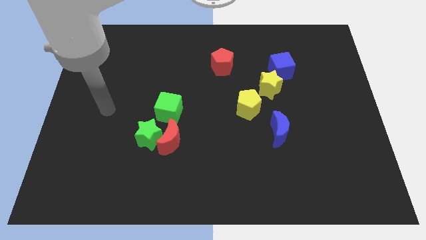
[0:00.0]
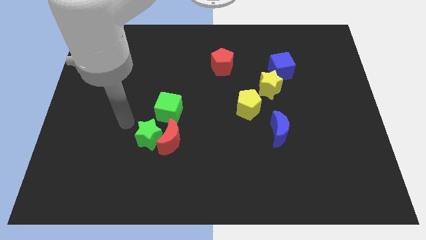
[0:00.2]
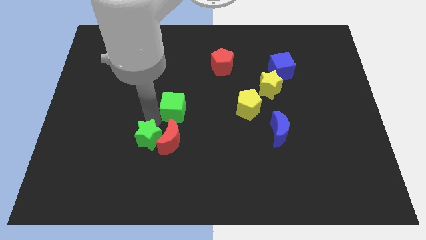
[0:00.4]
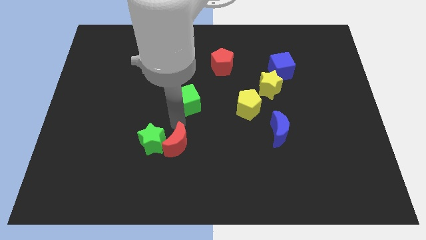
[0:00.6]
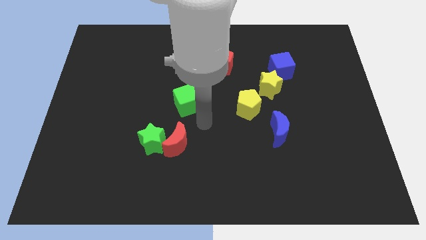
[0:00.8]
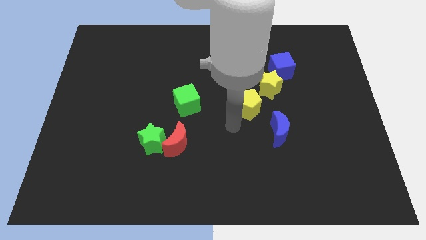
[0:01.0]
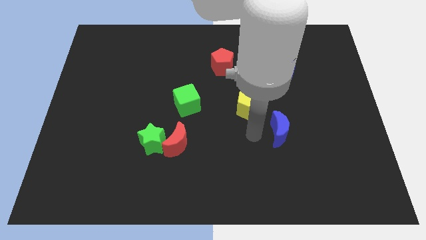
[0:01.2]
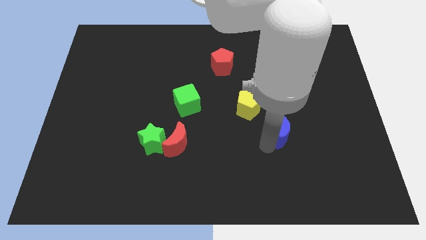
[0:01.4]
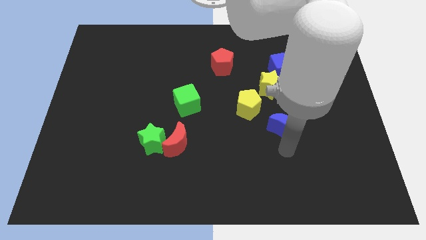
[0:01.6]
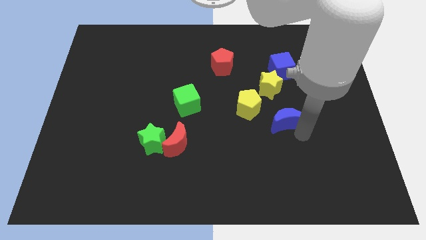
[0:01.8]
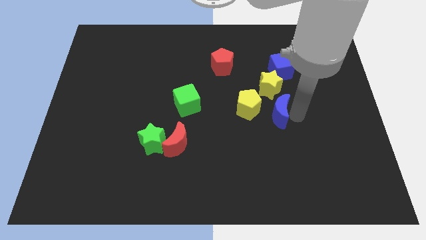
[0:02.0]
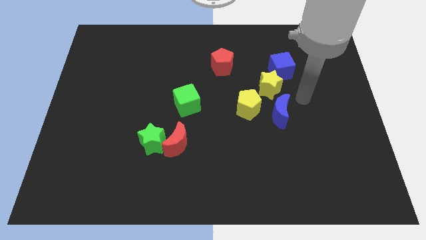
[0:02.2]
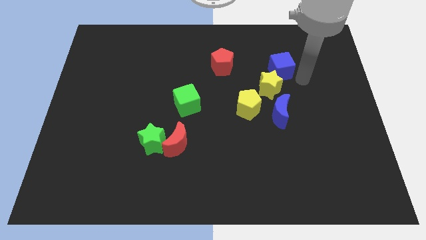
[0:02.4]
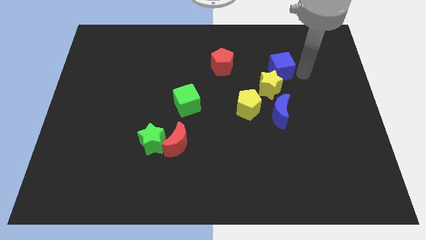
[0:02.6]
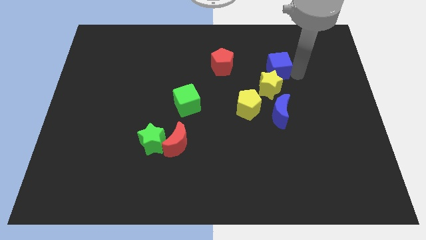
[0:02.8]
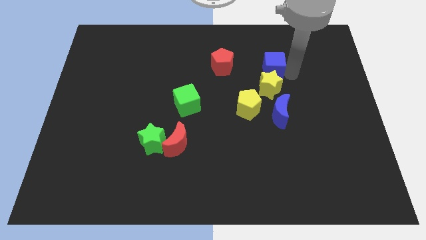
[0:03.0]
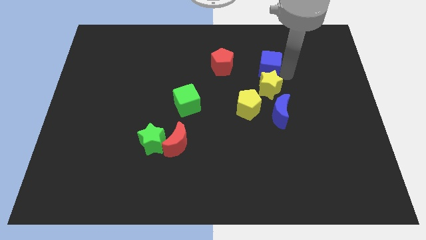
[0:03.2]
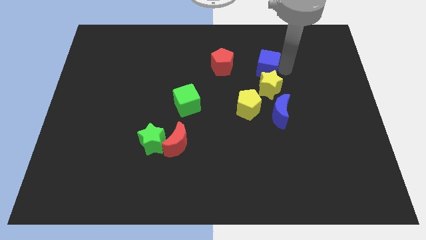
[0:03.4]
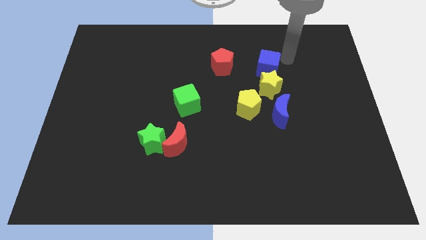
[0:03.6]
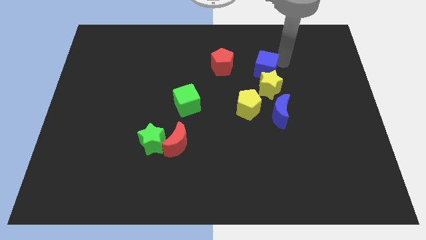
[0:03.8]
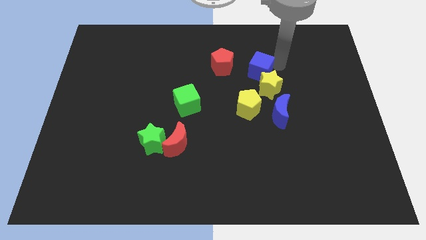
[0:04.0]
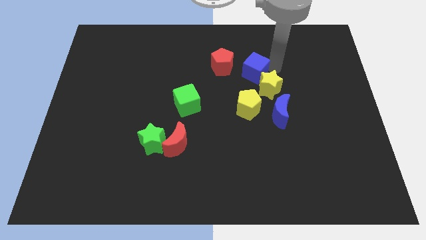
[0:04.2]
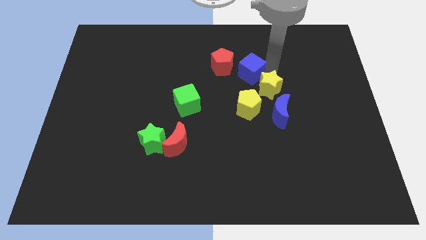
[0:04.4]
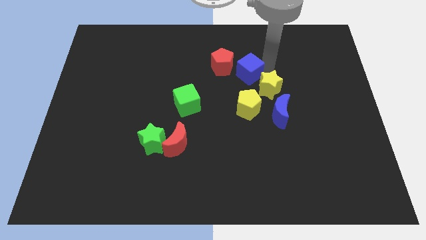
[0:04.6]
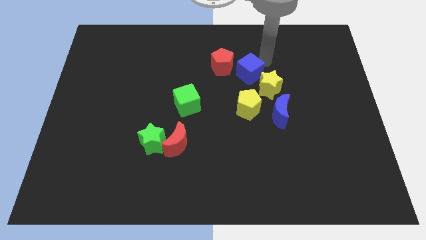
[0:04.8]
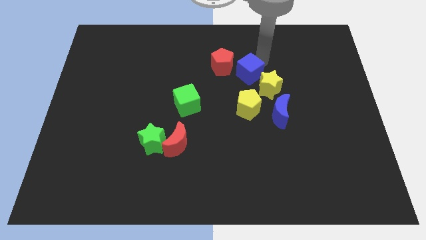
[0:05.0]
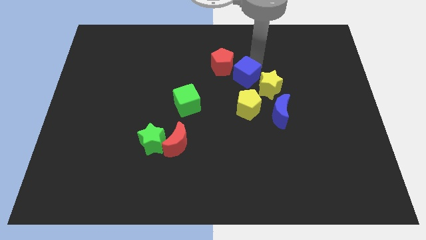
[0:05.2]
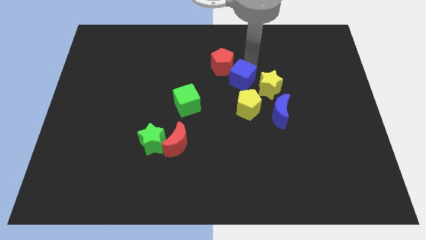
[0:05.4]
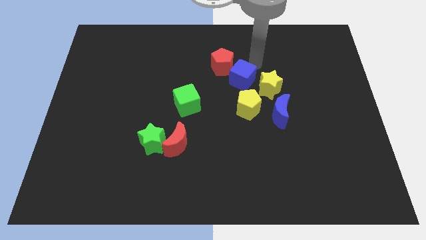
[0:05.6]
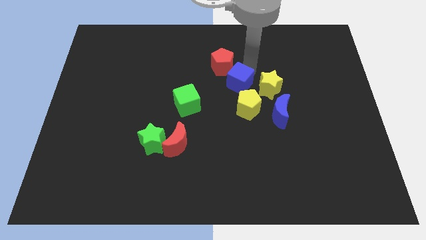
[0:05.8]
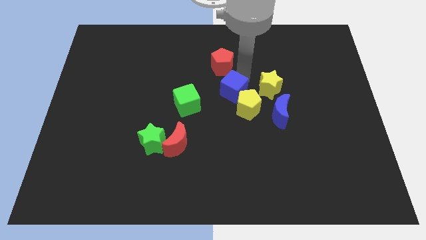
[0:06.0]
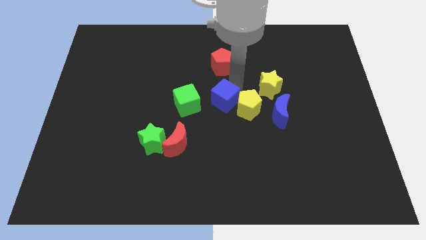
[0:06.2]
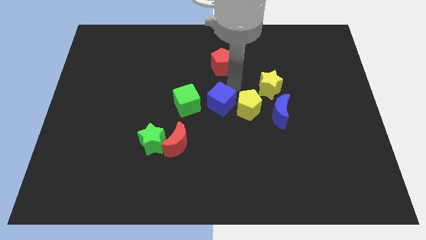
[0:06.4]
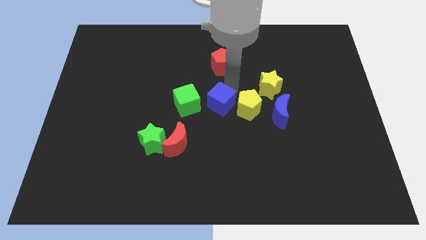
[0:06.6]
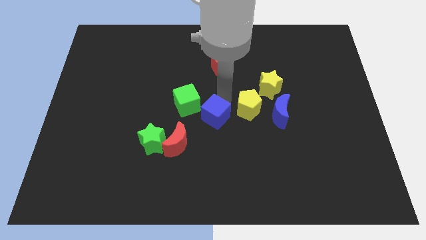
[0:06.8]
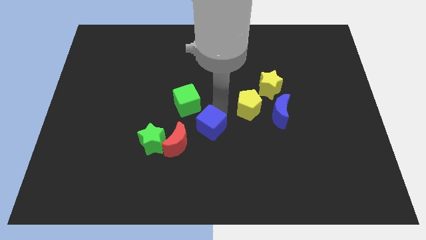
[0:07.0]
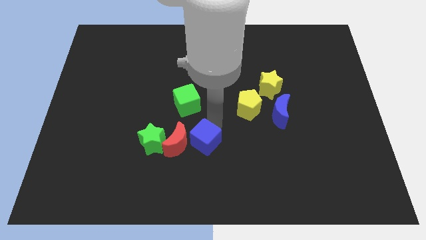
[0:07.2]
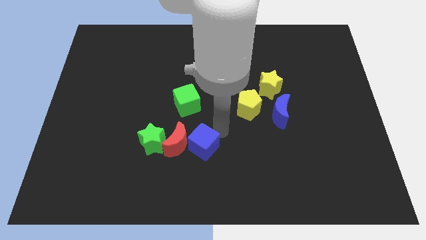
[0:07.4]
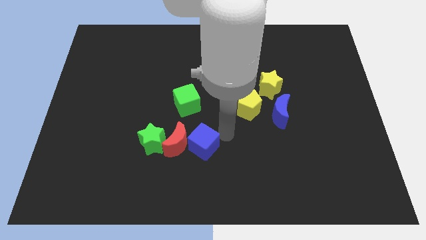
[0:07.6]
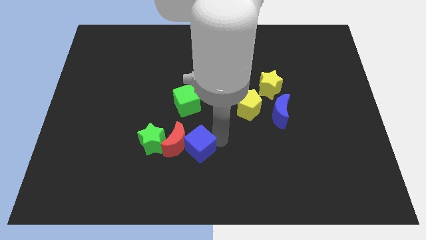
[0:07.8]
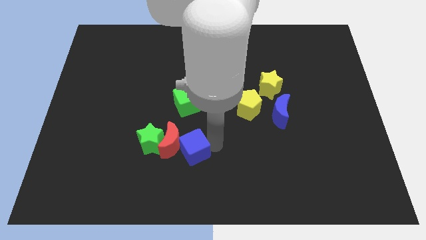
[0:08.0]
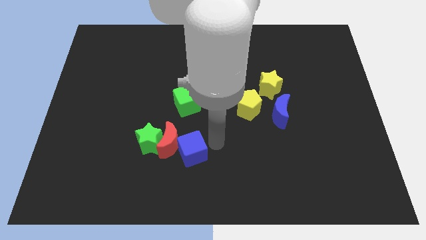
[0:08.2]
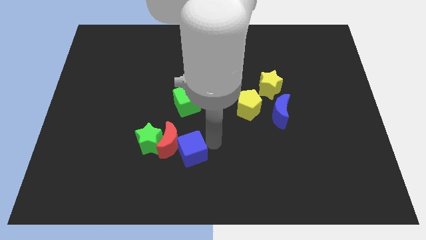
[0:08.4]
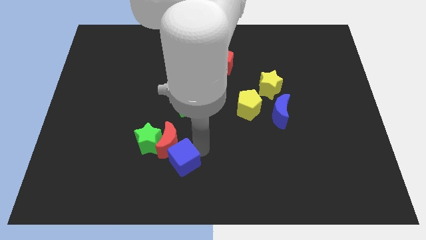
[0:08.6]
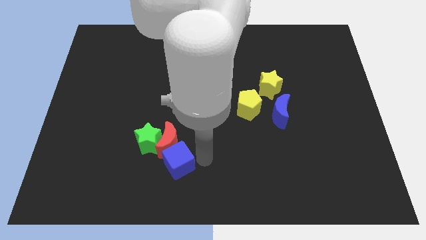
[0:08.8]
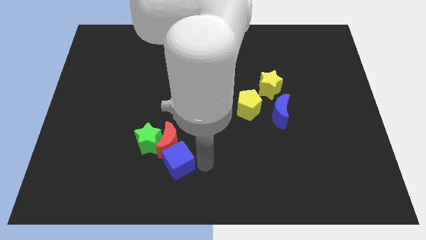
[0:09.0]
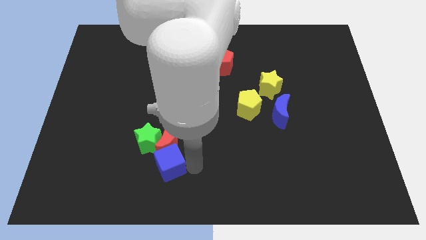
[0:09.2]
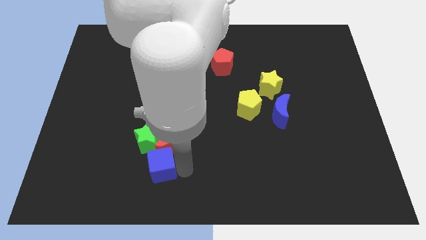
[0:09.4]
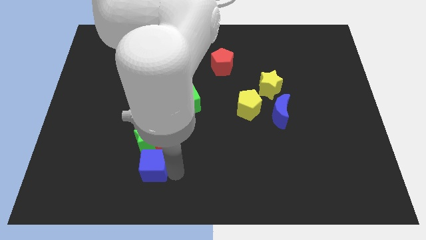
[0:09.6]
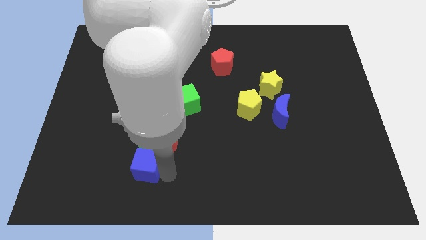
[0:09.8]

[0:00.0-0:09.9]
push the blue cube diagonally down and to the left of the green star

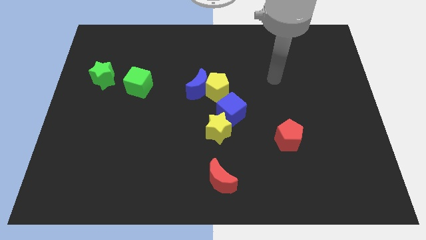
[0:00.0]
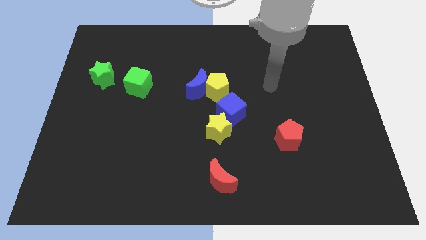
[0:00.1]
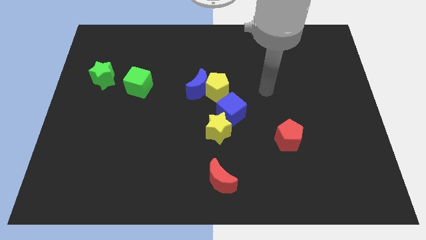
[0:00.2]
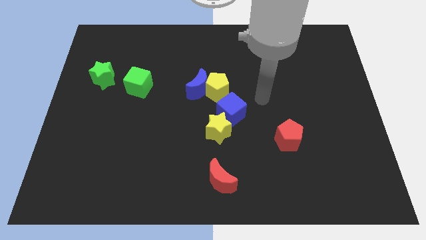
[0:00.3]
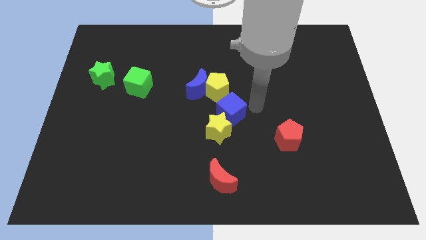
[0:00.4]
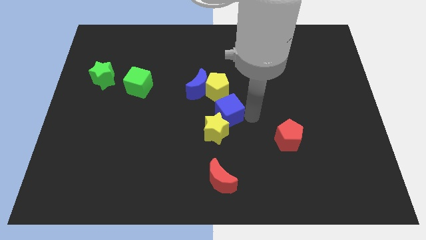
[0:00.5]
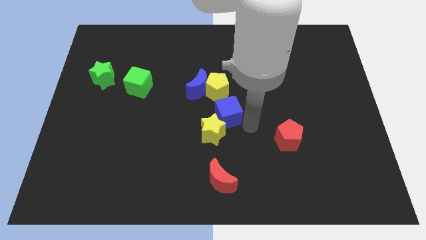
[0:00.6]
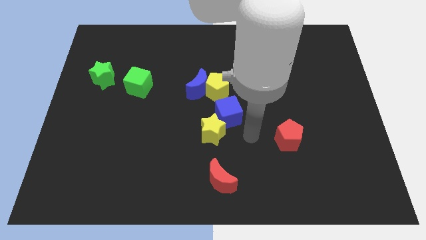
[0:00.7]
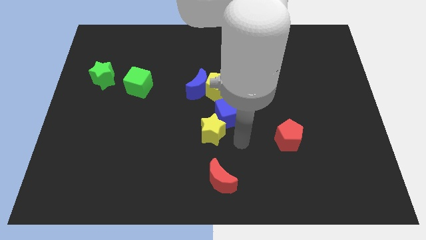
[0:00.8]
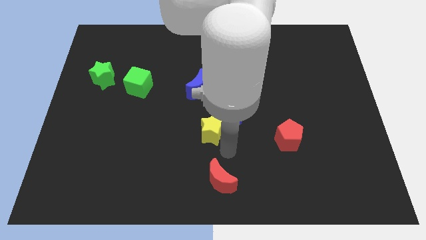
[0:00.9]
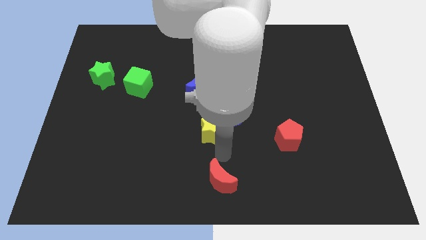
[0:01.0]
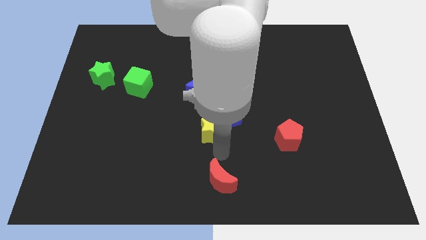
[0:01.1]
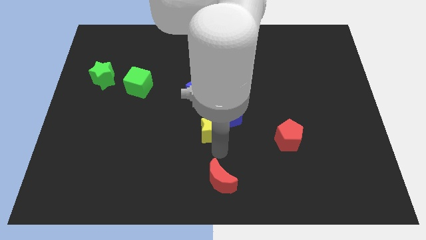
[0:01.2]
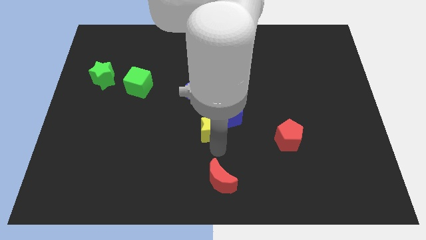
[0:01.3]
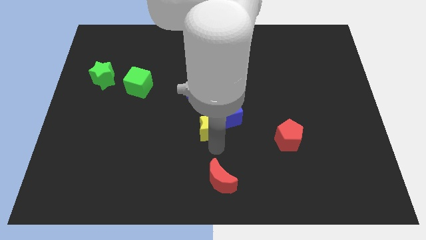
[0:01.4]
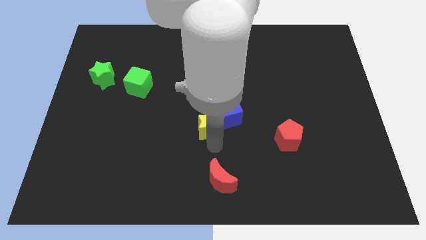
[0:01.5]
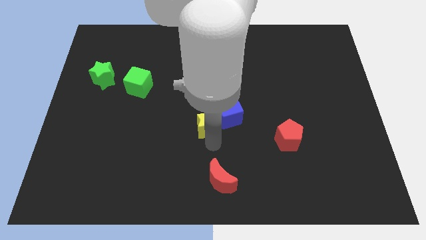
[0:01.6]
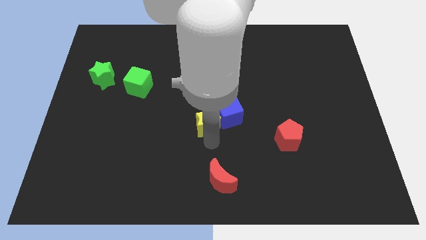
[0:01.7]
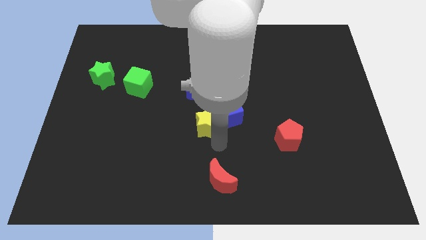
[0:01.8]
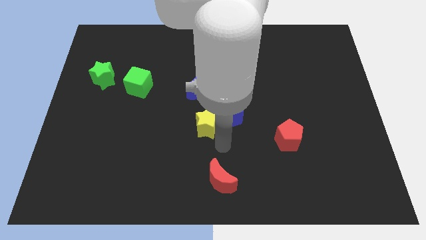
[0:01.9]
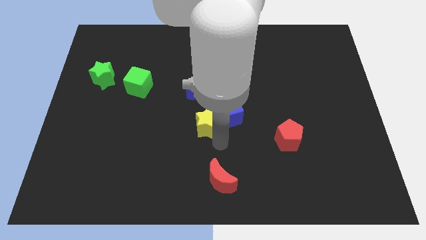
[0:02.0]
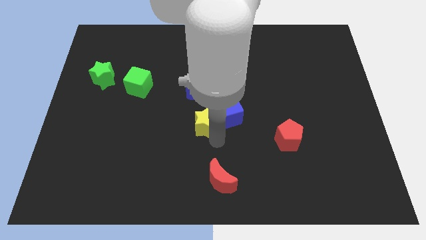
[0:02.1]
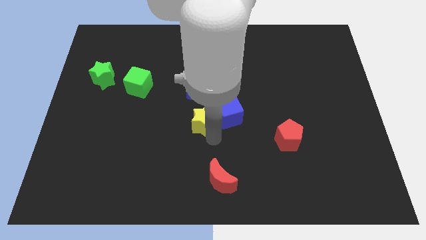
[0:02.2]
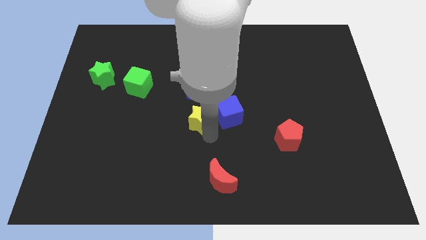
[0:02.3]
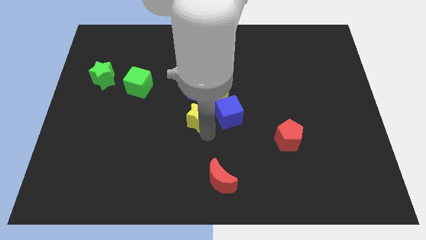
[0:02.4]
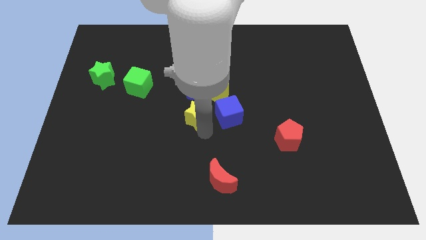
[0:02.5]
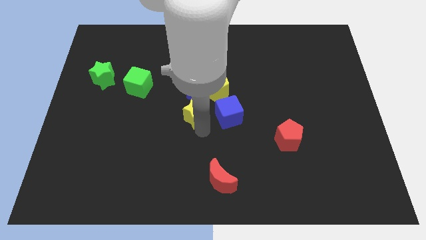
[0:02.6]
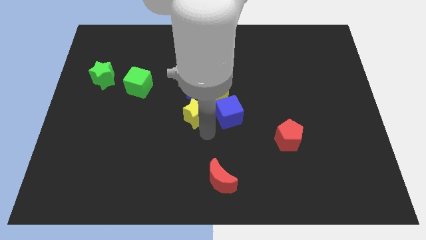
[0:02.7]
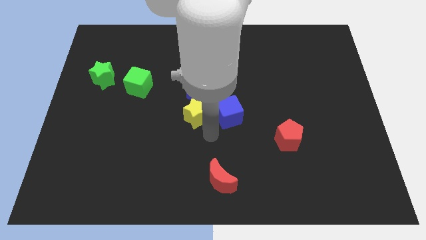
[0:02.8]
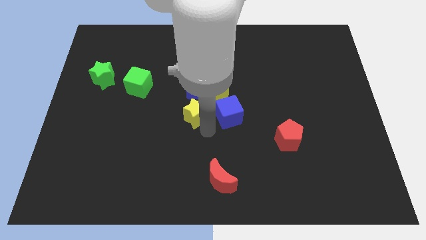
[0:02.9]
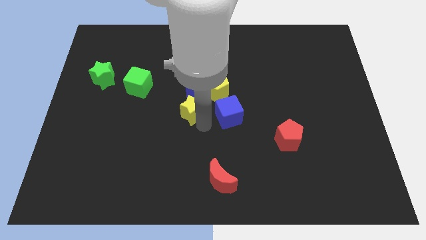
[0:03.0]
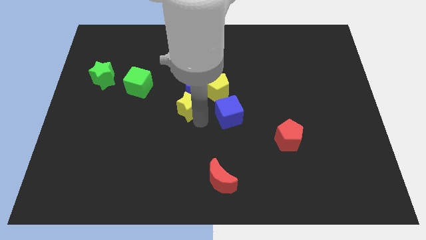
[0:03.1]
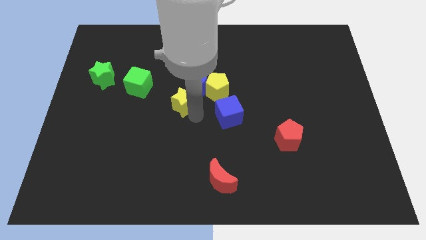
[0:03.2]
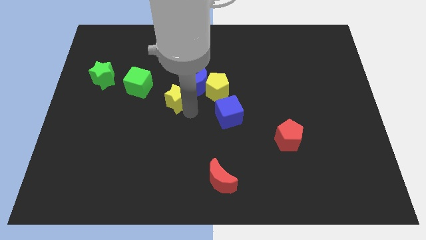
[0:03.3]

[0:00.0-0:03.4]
push the yellow star to the right side of the green cube
